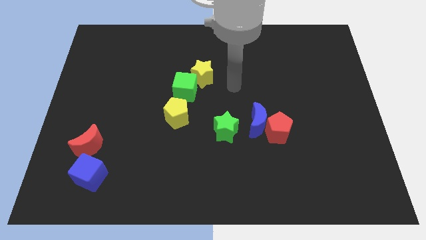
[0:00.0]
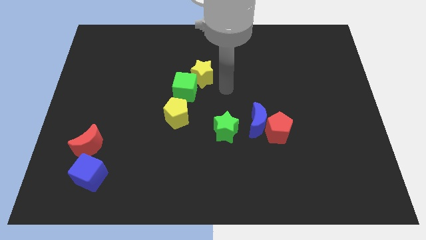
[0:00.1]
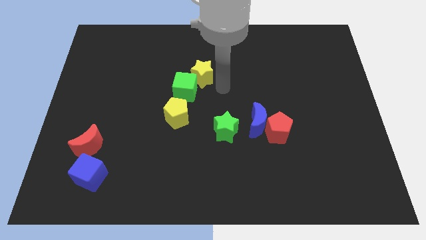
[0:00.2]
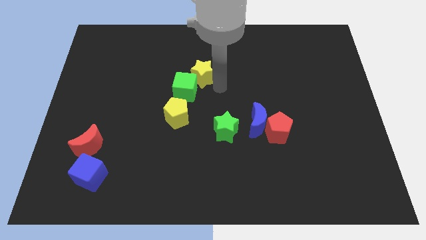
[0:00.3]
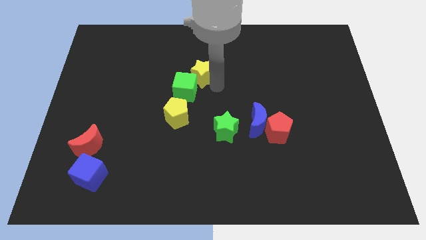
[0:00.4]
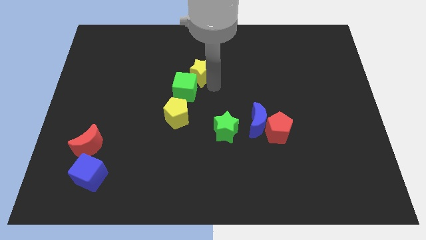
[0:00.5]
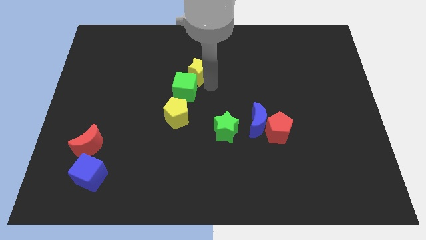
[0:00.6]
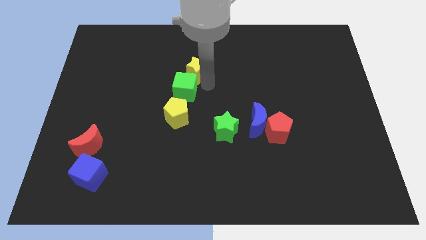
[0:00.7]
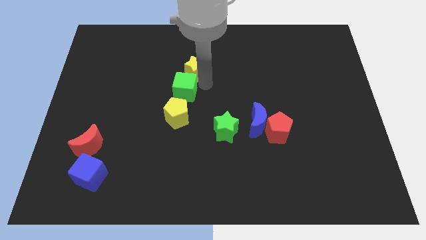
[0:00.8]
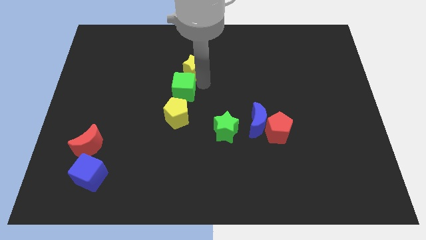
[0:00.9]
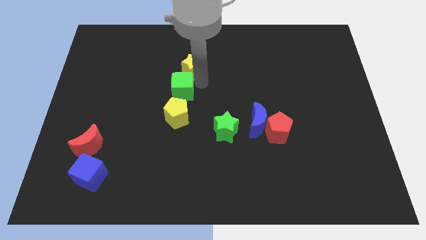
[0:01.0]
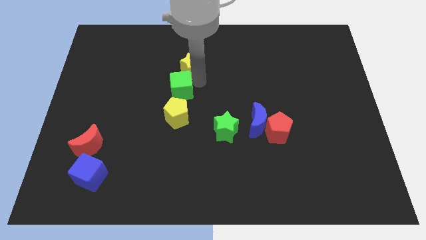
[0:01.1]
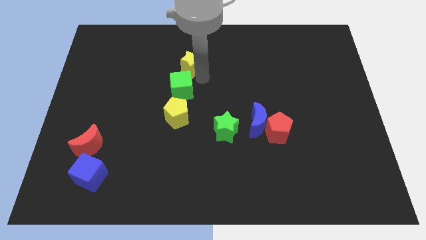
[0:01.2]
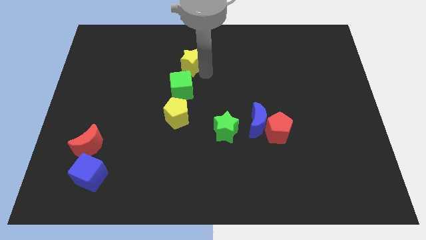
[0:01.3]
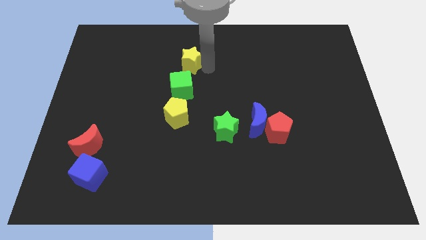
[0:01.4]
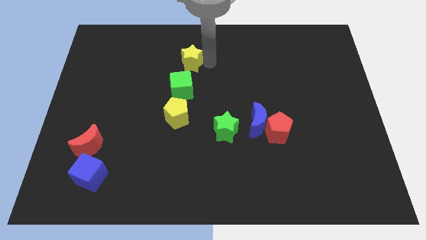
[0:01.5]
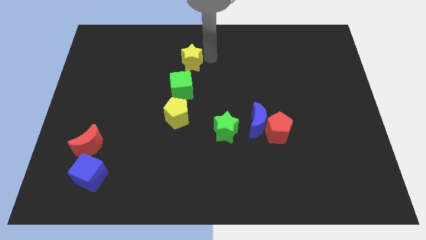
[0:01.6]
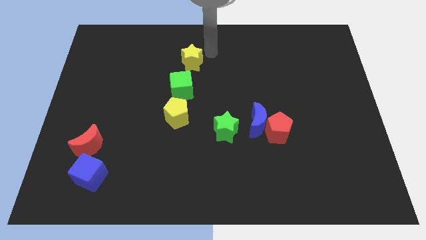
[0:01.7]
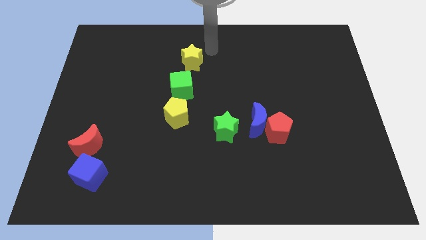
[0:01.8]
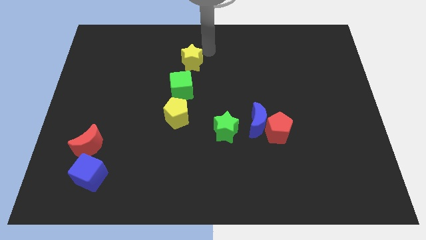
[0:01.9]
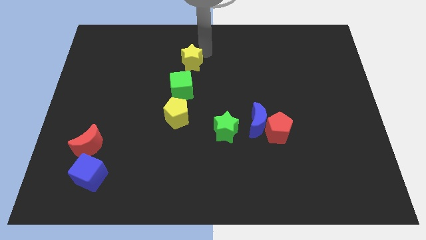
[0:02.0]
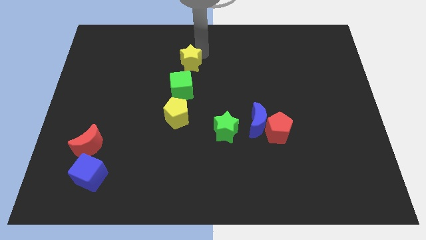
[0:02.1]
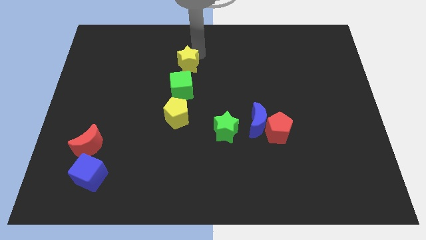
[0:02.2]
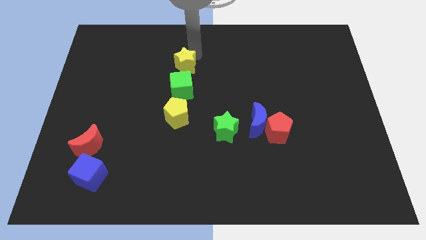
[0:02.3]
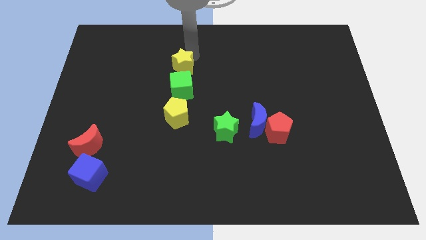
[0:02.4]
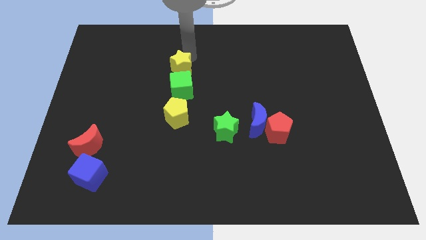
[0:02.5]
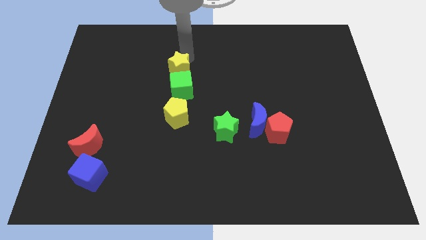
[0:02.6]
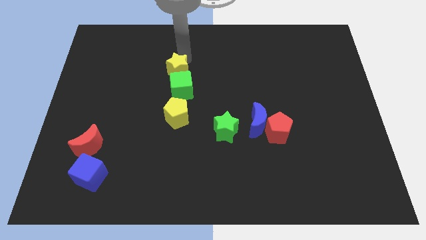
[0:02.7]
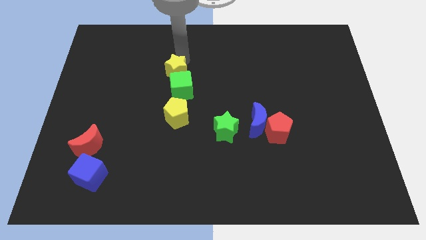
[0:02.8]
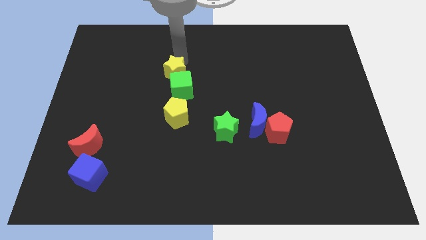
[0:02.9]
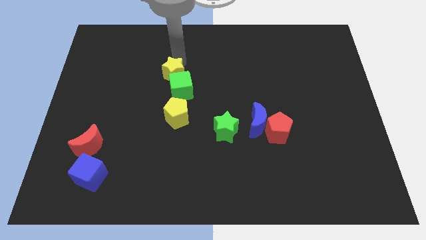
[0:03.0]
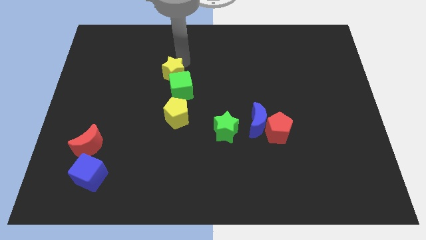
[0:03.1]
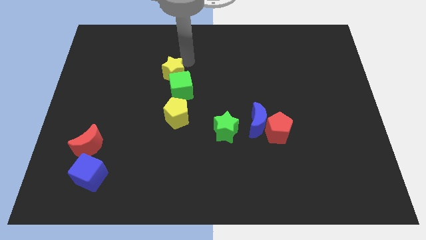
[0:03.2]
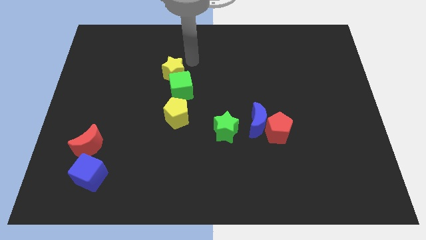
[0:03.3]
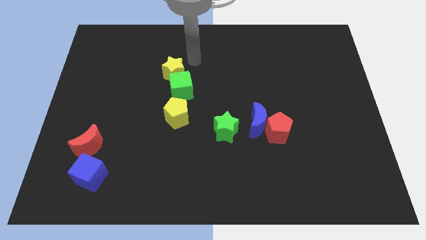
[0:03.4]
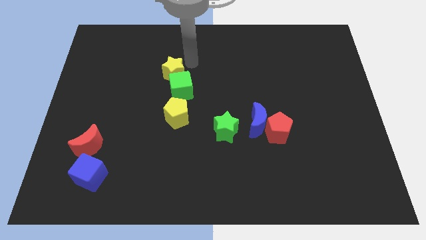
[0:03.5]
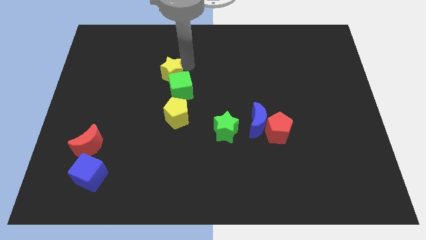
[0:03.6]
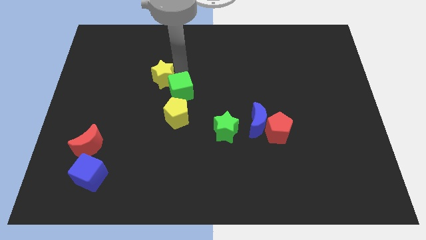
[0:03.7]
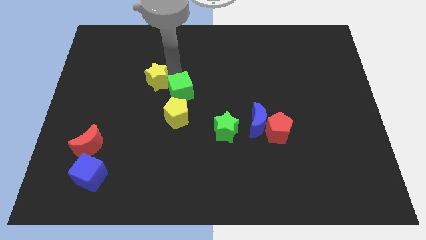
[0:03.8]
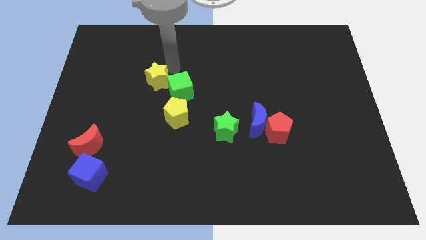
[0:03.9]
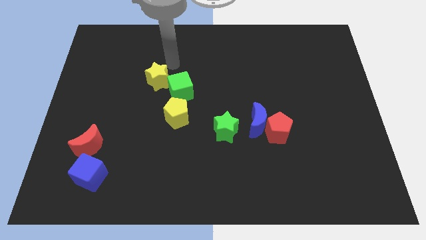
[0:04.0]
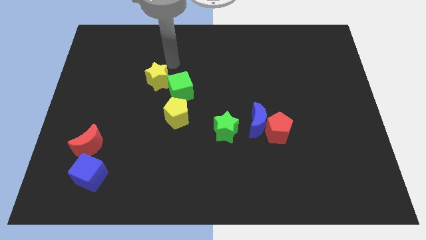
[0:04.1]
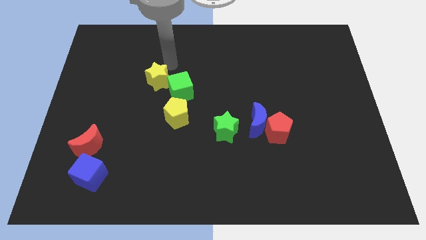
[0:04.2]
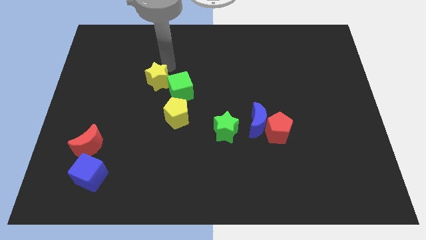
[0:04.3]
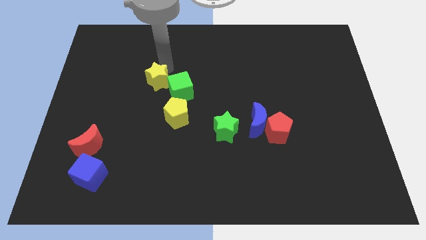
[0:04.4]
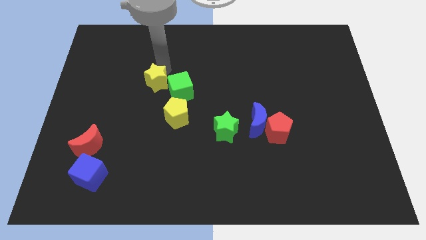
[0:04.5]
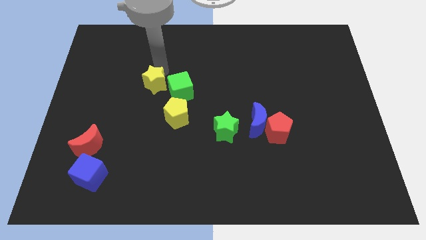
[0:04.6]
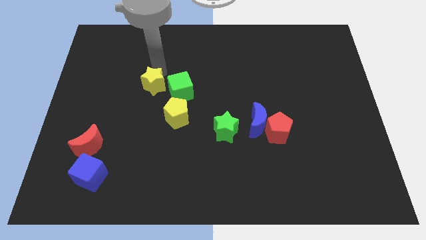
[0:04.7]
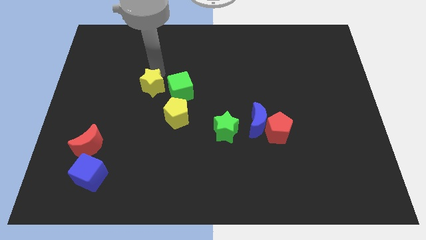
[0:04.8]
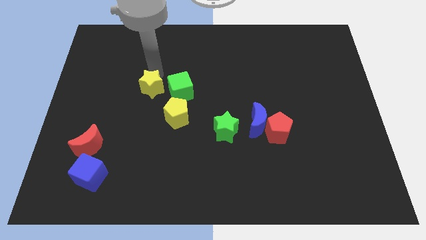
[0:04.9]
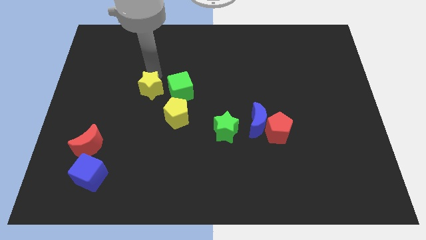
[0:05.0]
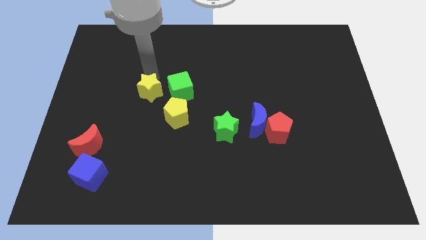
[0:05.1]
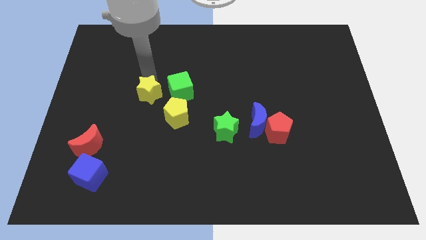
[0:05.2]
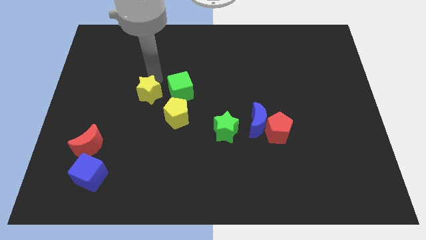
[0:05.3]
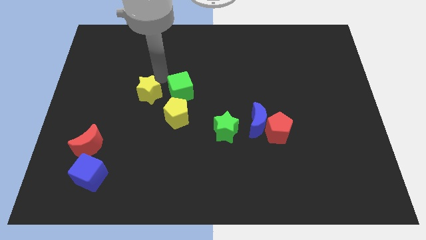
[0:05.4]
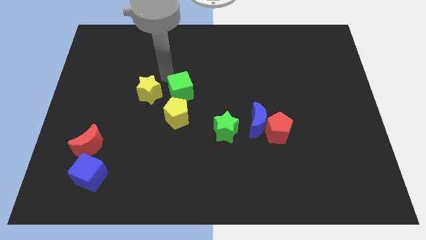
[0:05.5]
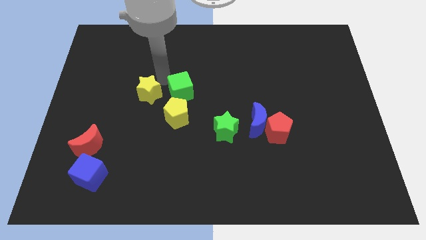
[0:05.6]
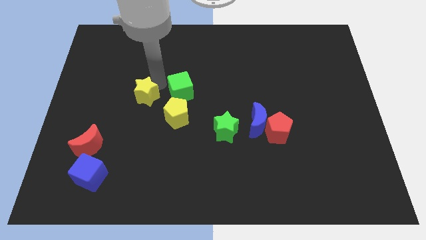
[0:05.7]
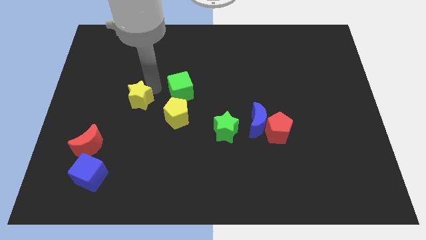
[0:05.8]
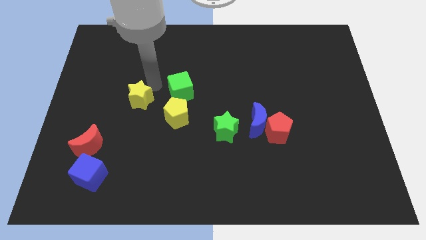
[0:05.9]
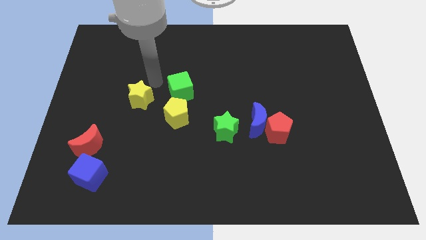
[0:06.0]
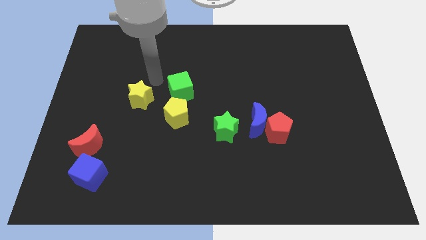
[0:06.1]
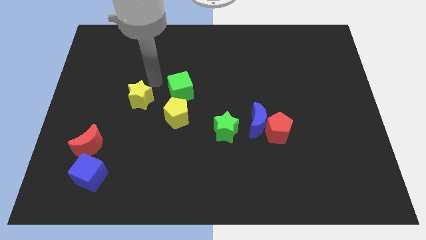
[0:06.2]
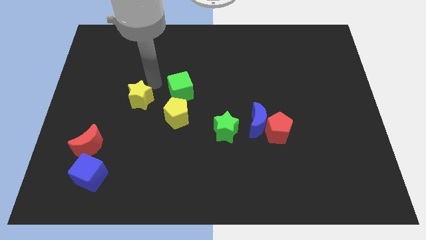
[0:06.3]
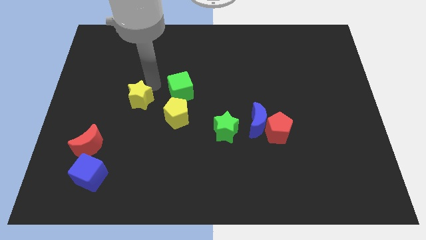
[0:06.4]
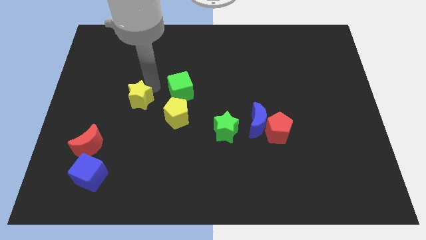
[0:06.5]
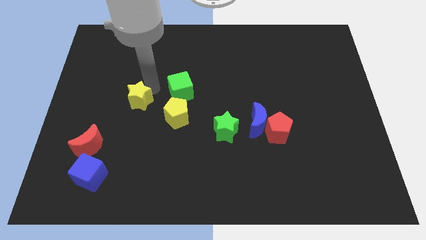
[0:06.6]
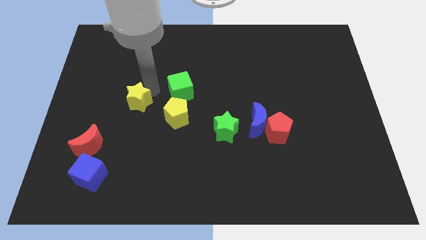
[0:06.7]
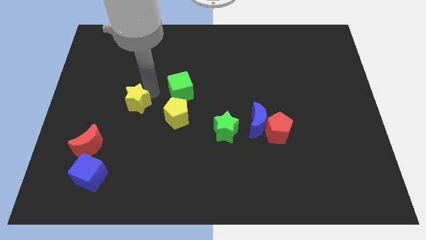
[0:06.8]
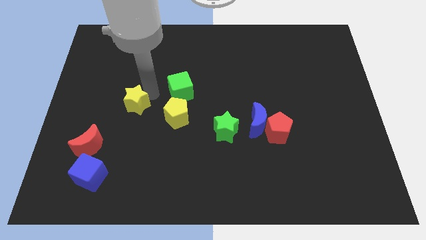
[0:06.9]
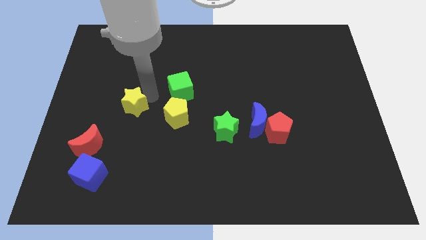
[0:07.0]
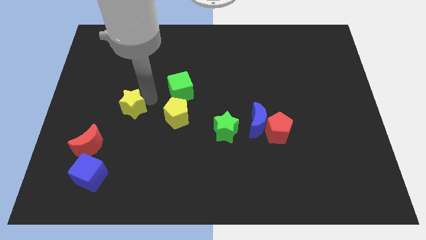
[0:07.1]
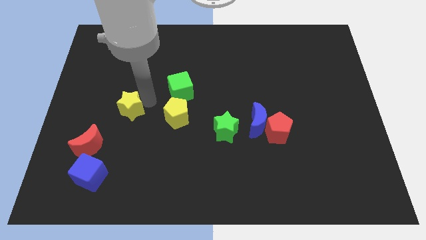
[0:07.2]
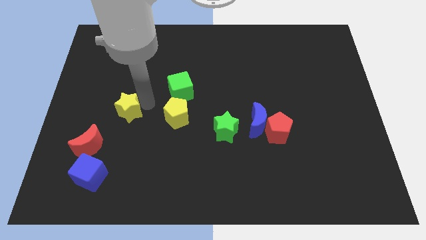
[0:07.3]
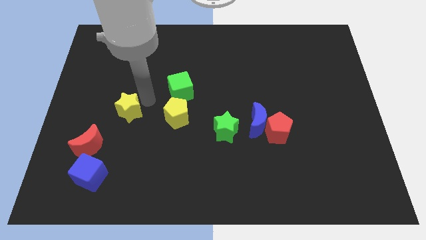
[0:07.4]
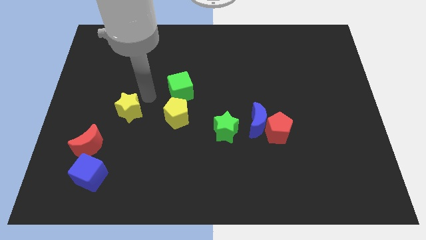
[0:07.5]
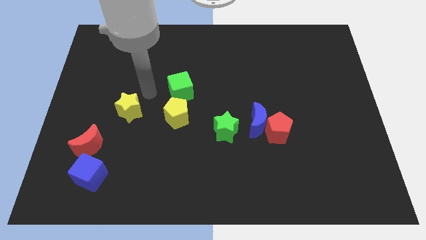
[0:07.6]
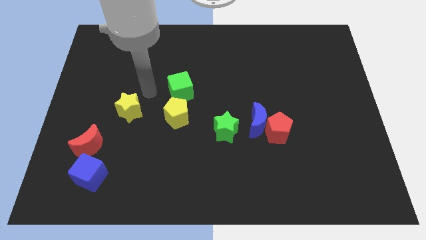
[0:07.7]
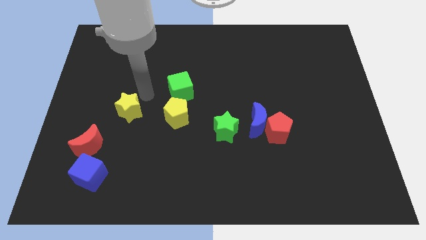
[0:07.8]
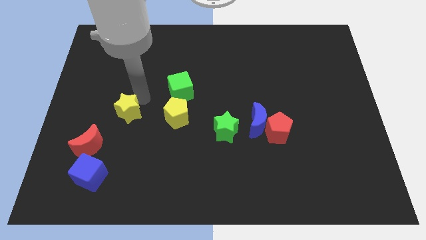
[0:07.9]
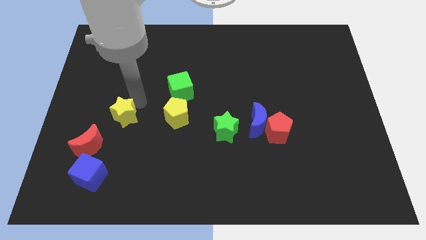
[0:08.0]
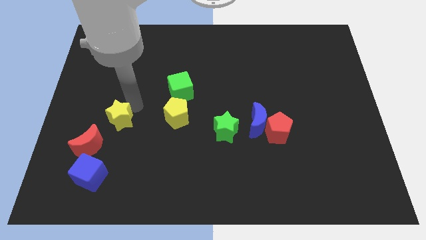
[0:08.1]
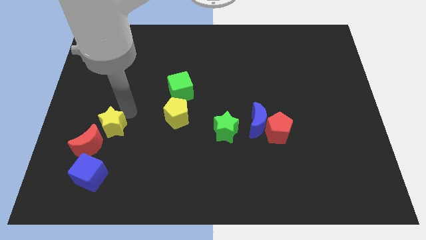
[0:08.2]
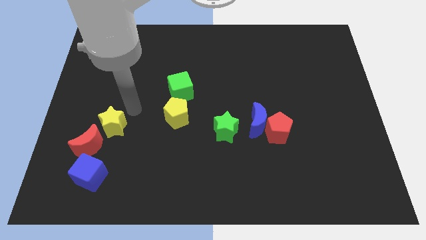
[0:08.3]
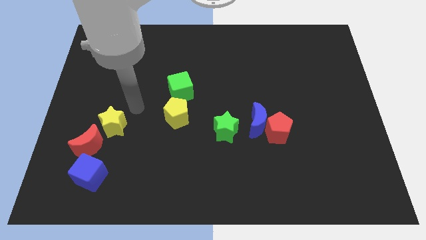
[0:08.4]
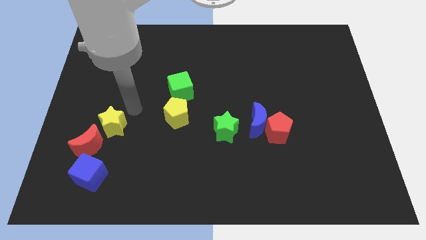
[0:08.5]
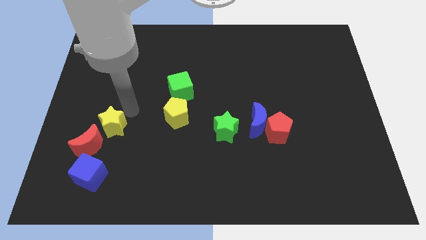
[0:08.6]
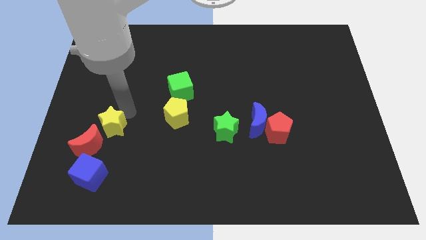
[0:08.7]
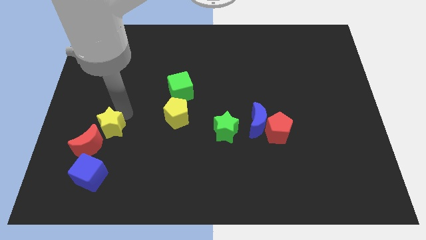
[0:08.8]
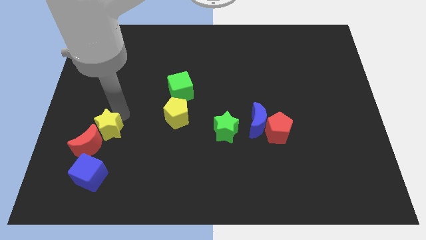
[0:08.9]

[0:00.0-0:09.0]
move the yellow star towards the red moon
